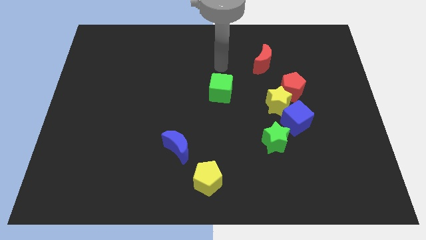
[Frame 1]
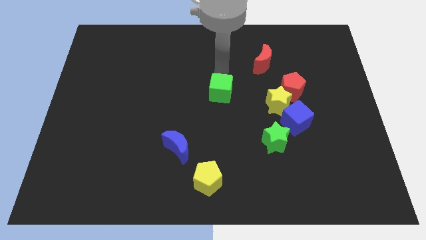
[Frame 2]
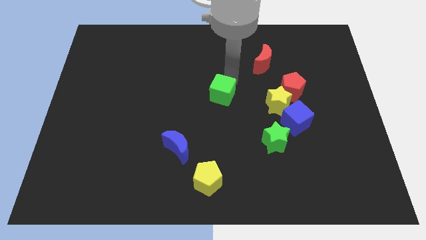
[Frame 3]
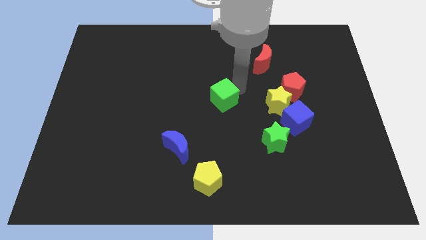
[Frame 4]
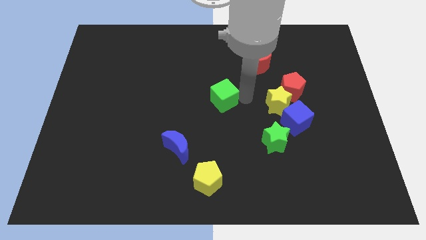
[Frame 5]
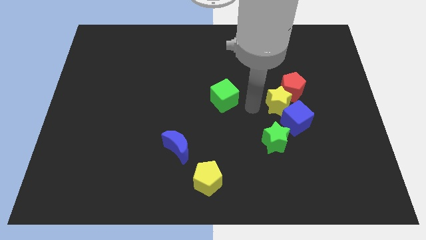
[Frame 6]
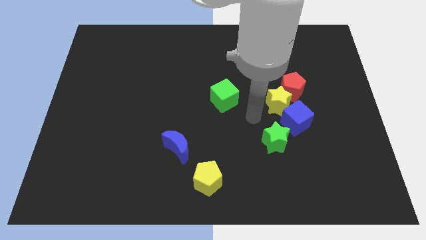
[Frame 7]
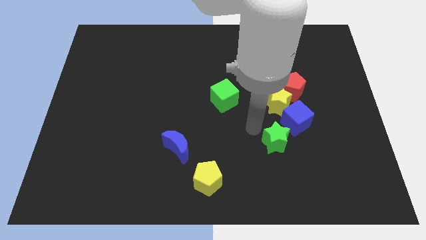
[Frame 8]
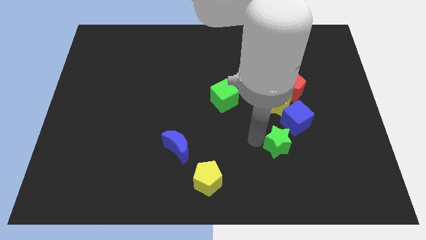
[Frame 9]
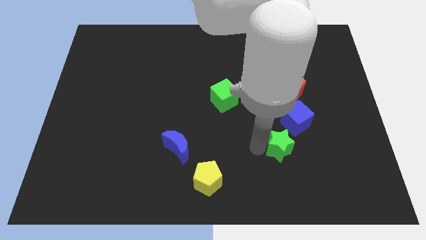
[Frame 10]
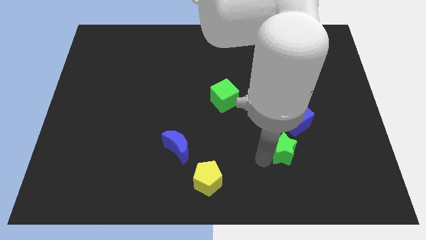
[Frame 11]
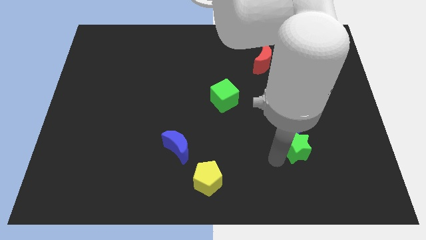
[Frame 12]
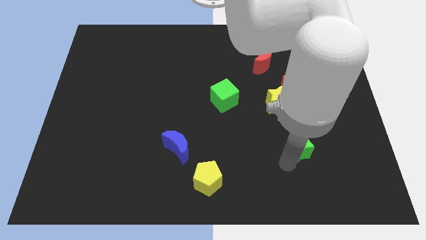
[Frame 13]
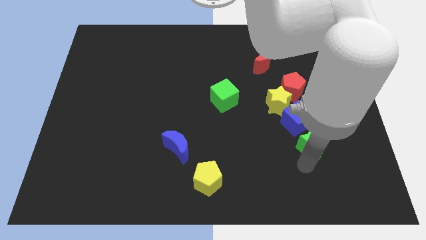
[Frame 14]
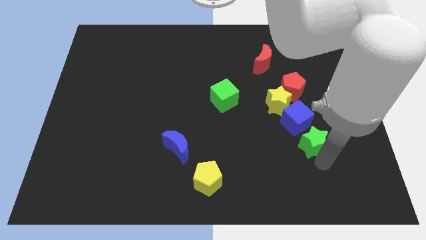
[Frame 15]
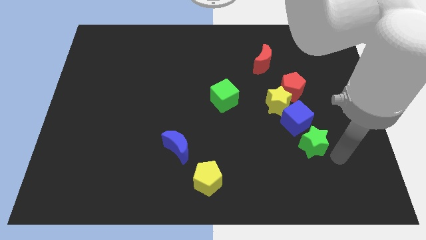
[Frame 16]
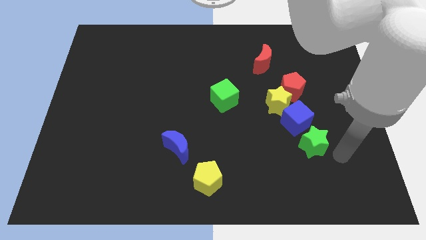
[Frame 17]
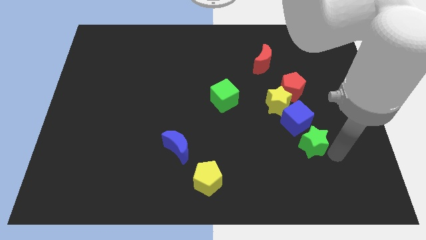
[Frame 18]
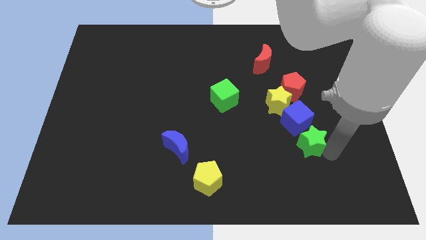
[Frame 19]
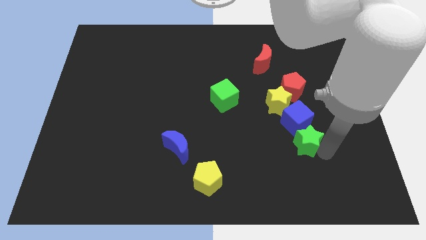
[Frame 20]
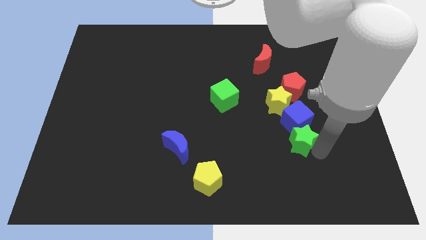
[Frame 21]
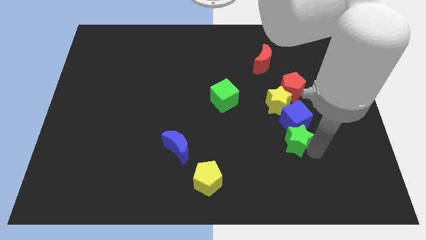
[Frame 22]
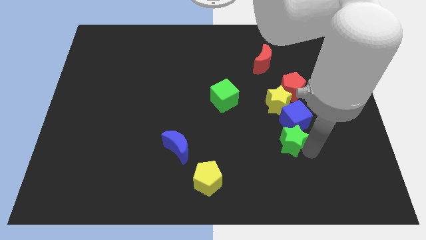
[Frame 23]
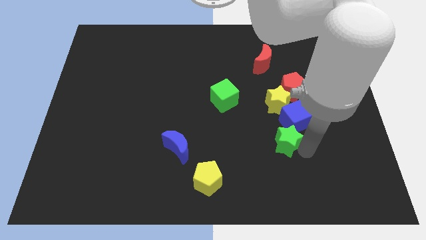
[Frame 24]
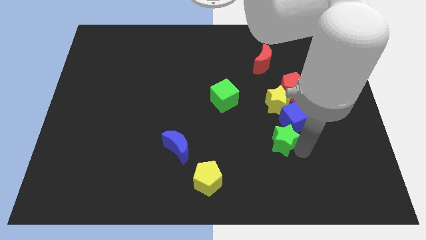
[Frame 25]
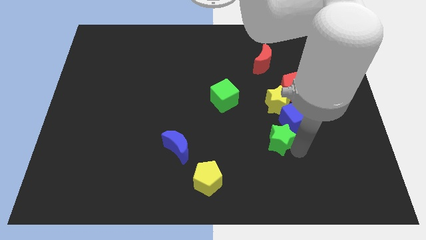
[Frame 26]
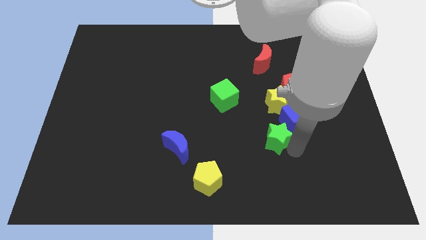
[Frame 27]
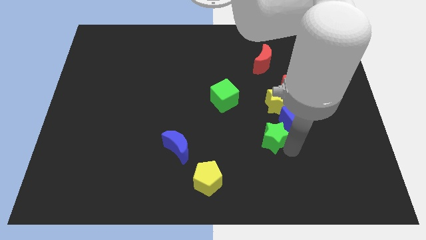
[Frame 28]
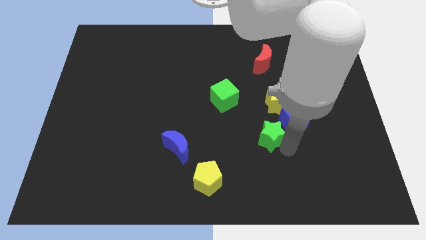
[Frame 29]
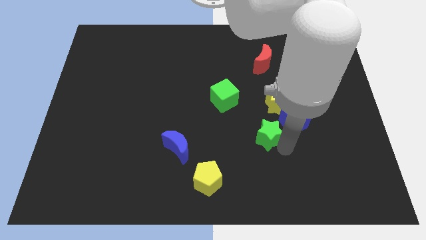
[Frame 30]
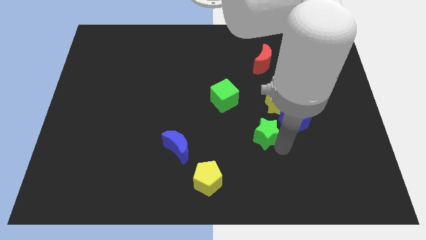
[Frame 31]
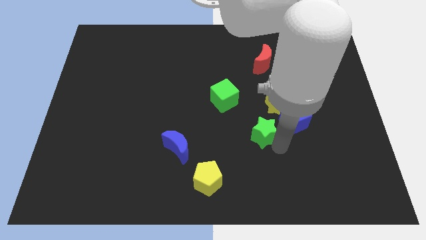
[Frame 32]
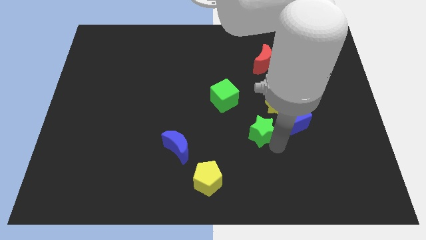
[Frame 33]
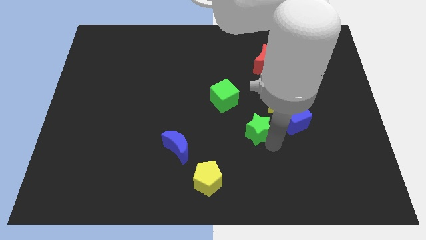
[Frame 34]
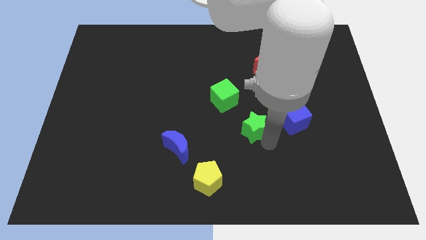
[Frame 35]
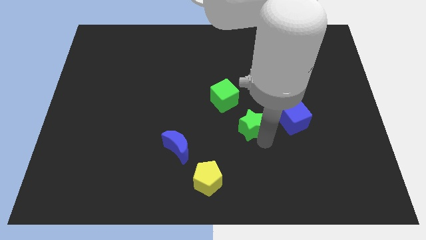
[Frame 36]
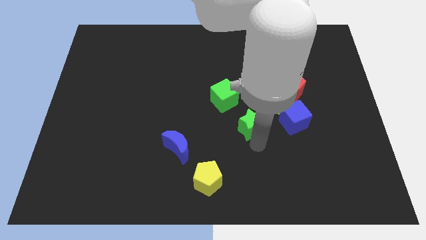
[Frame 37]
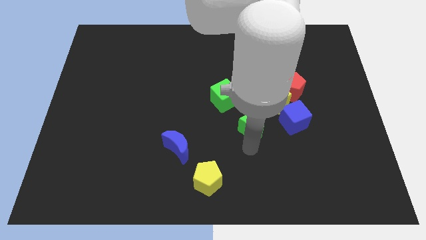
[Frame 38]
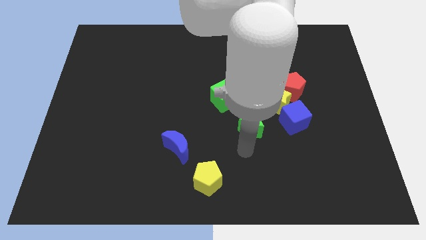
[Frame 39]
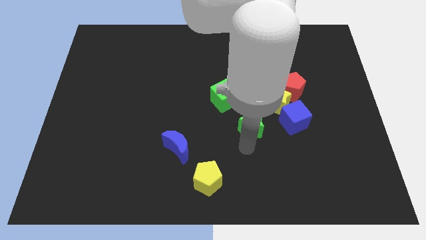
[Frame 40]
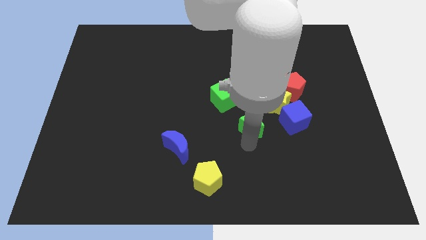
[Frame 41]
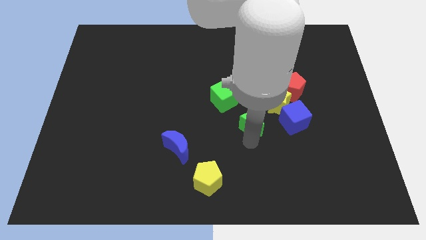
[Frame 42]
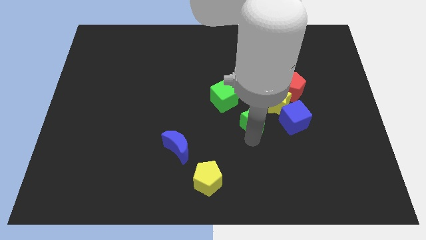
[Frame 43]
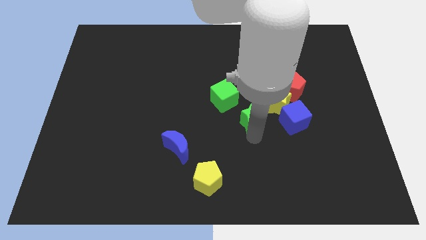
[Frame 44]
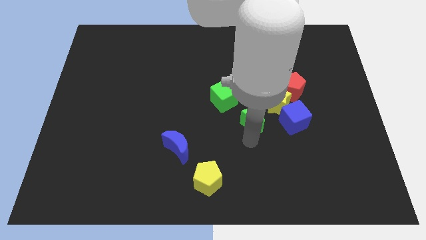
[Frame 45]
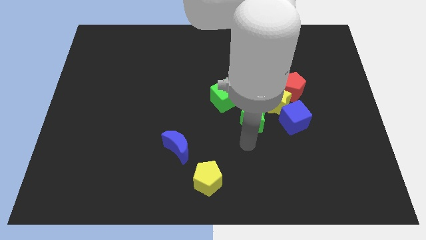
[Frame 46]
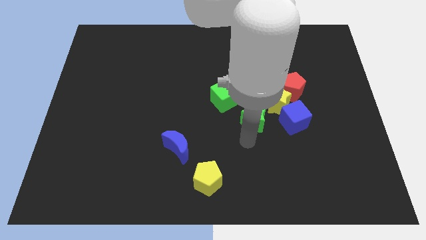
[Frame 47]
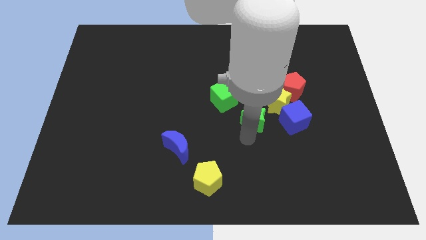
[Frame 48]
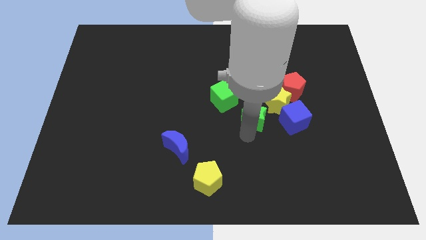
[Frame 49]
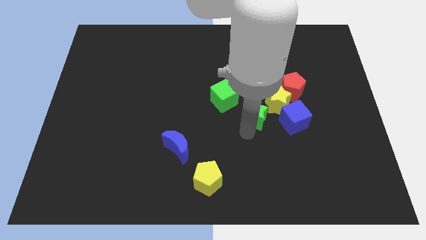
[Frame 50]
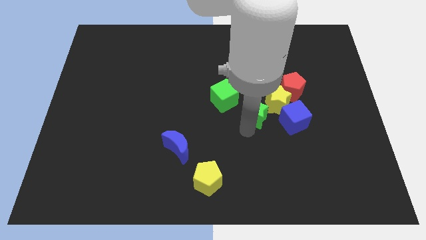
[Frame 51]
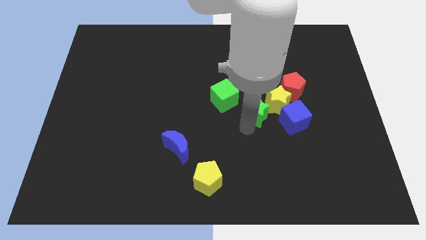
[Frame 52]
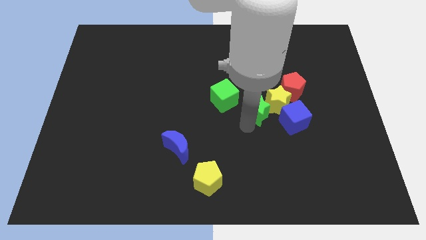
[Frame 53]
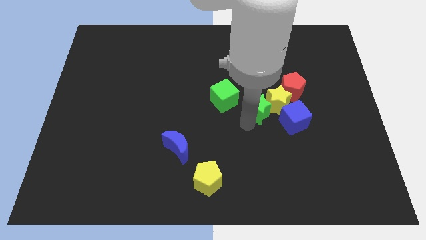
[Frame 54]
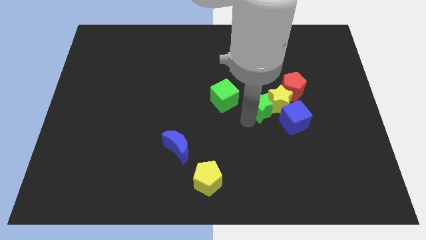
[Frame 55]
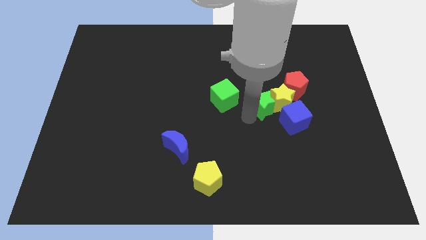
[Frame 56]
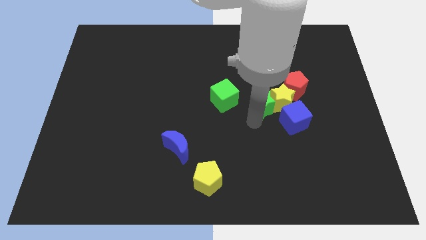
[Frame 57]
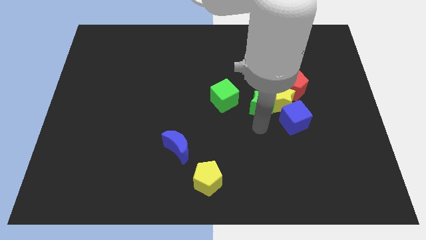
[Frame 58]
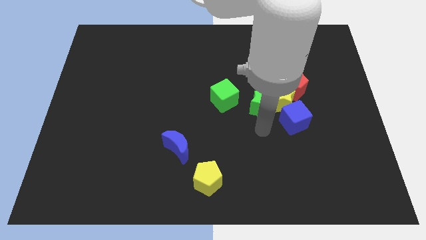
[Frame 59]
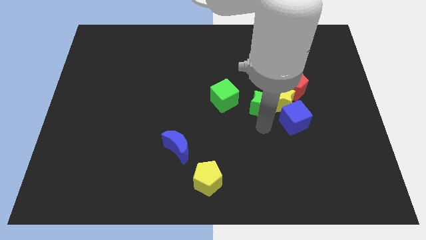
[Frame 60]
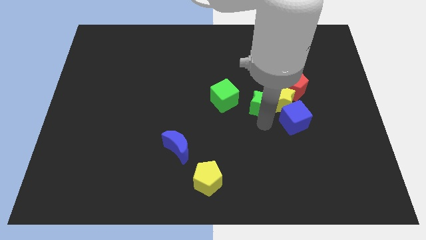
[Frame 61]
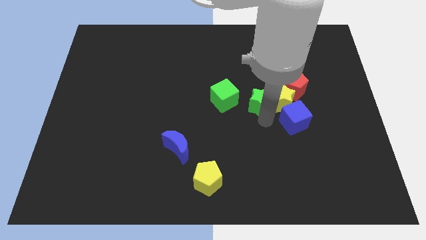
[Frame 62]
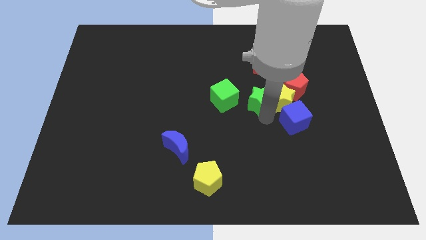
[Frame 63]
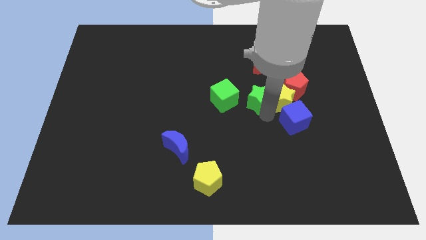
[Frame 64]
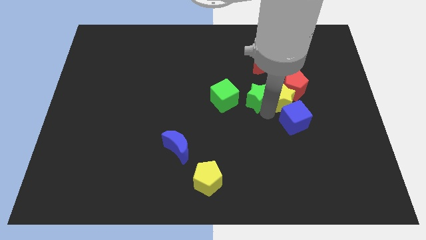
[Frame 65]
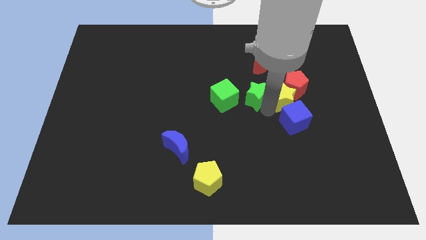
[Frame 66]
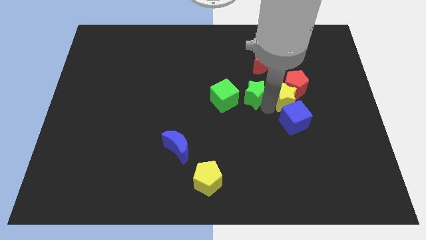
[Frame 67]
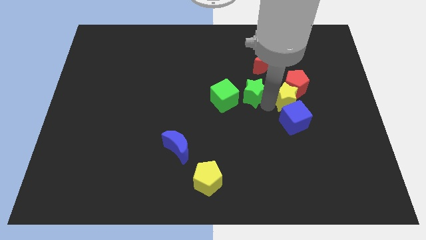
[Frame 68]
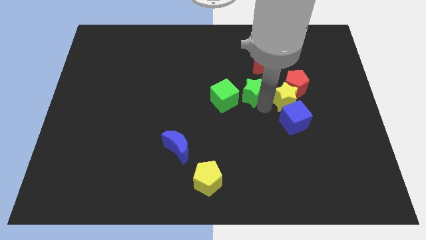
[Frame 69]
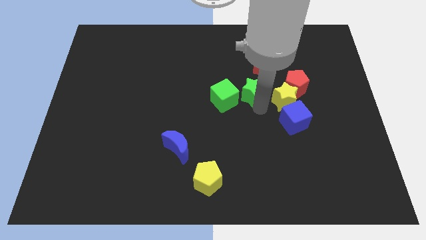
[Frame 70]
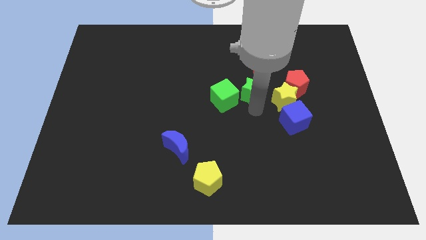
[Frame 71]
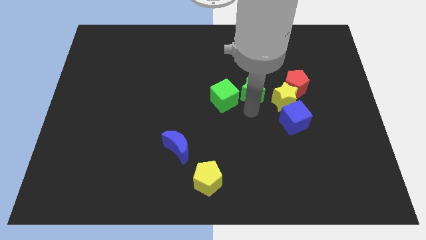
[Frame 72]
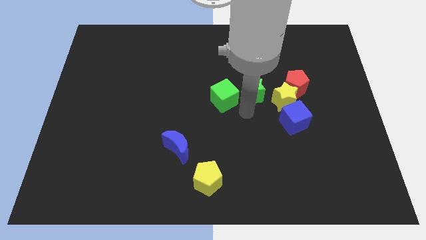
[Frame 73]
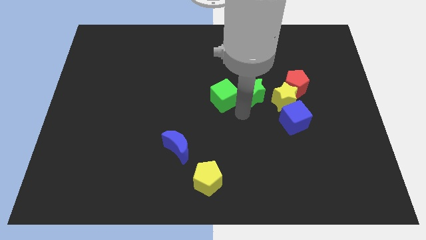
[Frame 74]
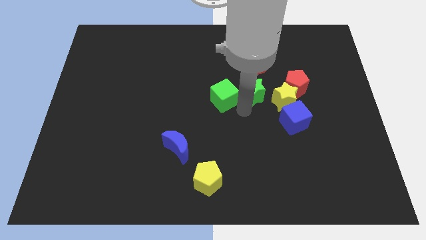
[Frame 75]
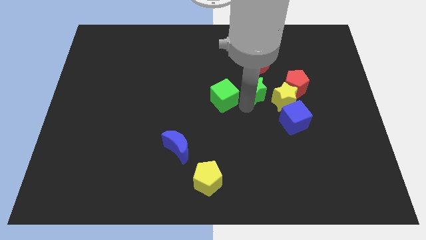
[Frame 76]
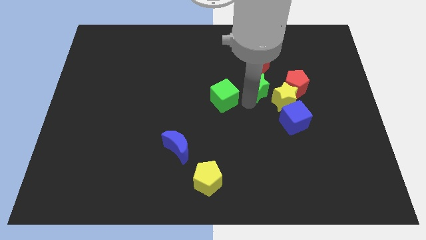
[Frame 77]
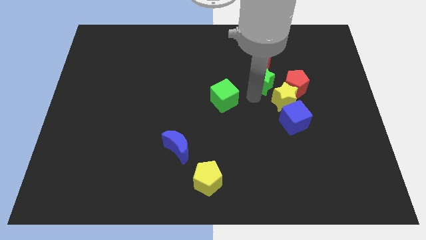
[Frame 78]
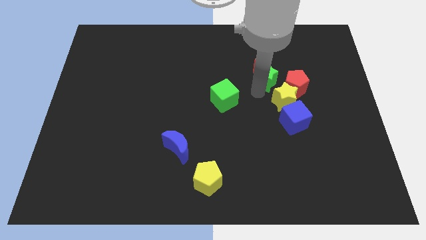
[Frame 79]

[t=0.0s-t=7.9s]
move the green star to the red moon
